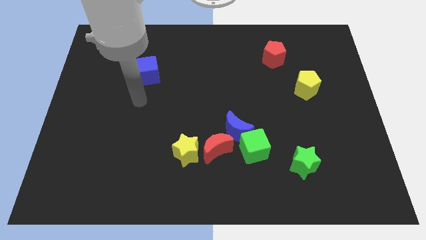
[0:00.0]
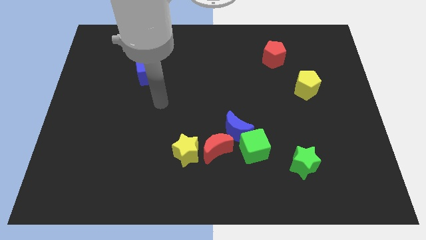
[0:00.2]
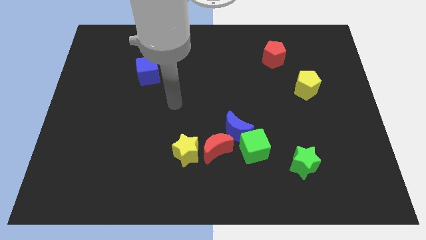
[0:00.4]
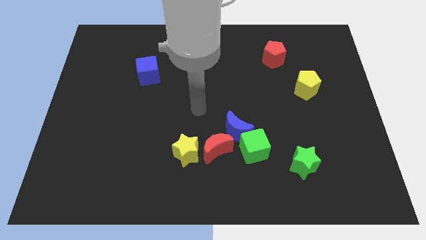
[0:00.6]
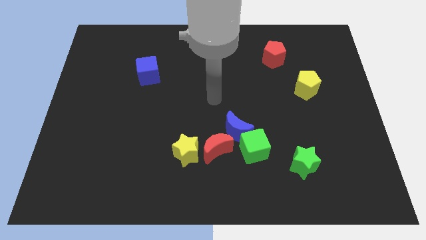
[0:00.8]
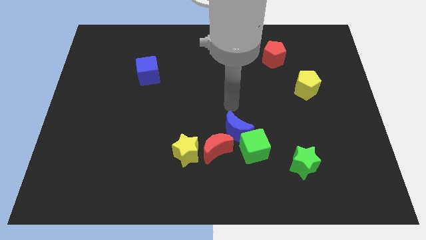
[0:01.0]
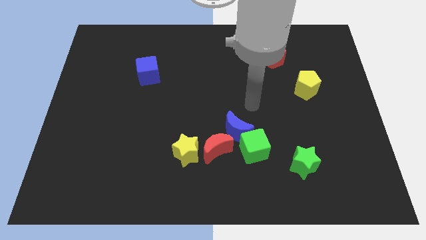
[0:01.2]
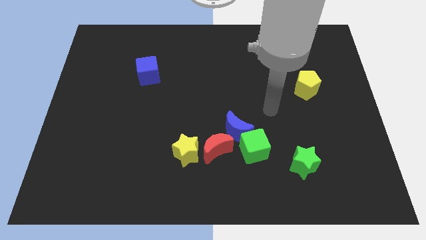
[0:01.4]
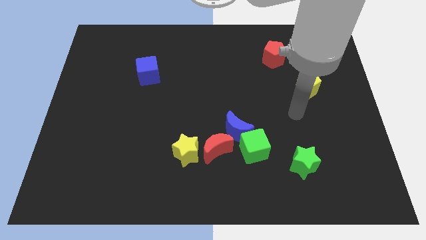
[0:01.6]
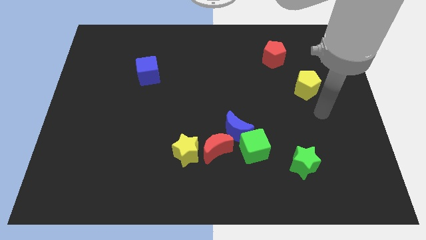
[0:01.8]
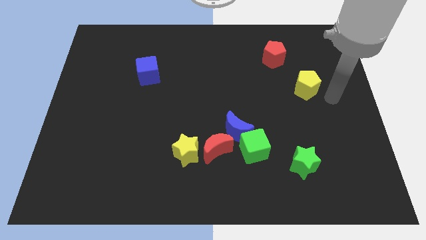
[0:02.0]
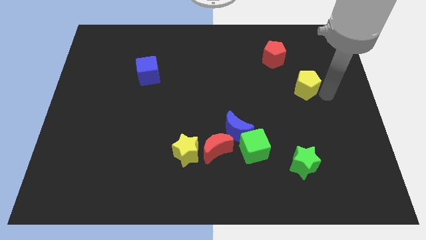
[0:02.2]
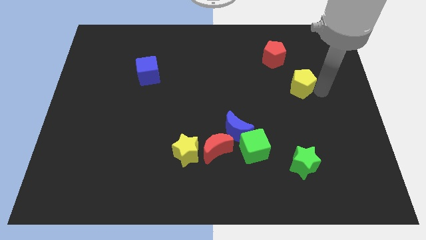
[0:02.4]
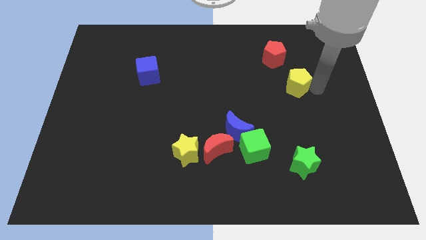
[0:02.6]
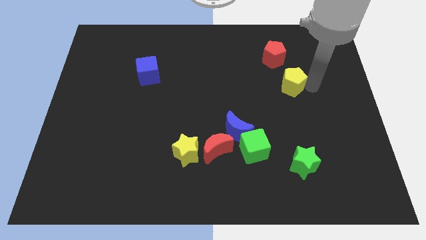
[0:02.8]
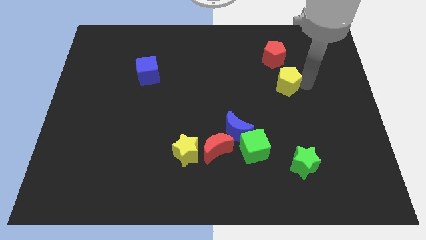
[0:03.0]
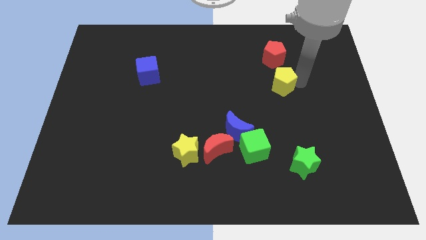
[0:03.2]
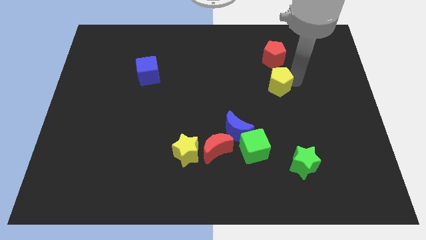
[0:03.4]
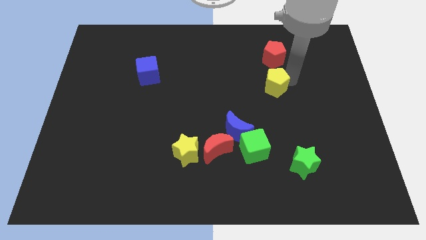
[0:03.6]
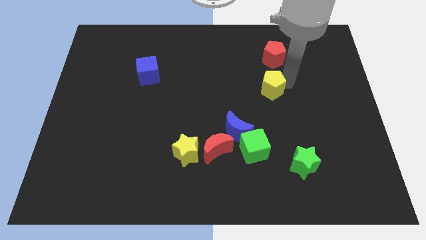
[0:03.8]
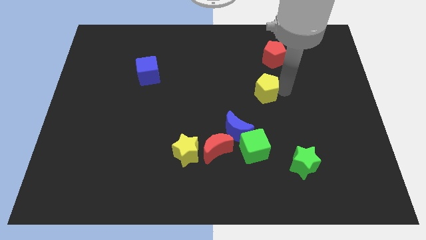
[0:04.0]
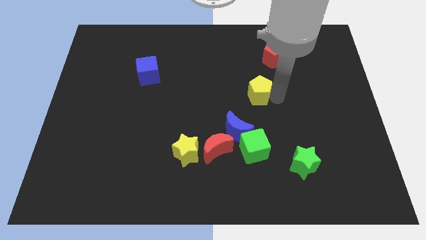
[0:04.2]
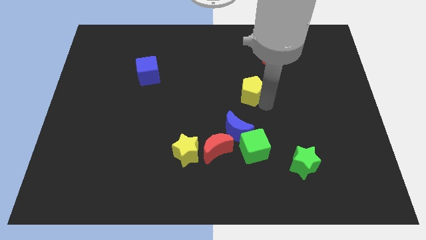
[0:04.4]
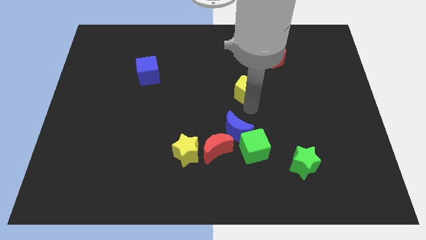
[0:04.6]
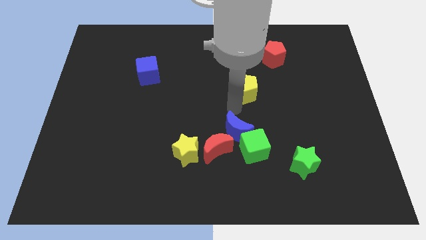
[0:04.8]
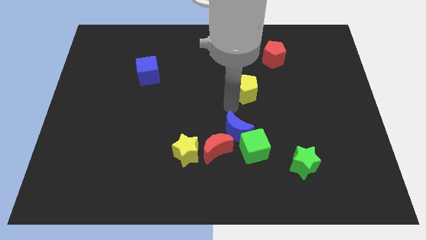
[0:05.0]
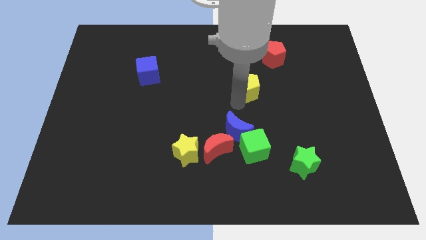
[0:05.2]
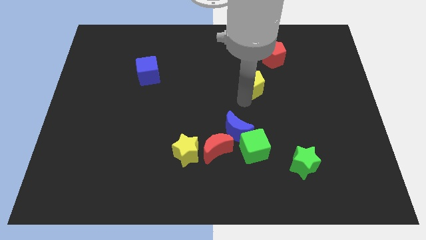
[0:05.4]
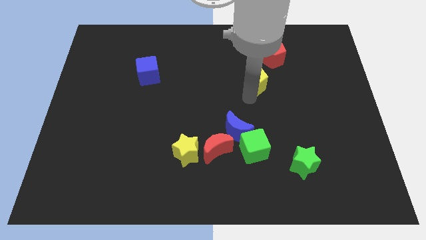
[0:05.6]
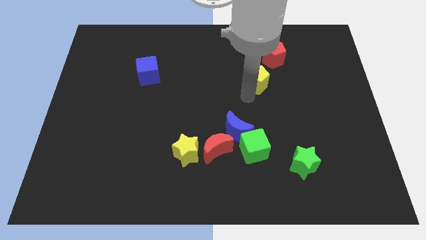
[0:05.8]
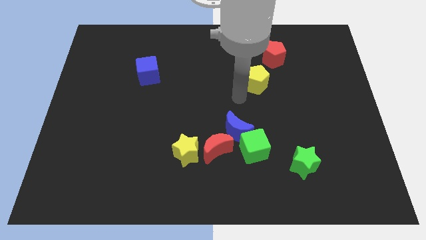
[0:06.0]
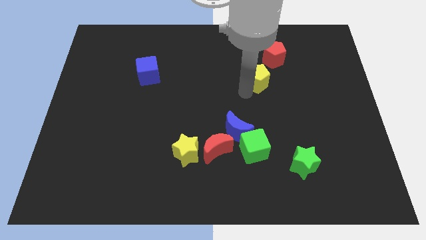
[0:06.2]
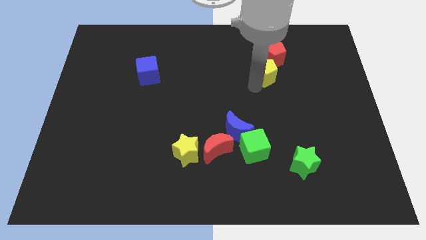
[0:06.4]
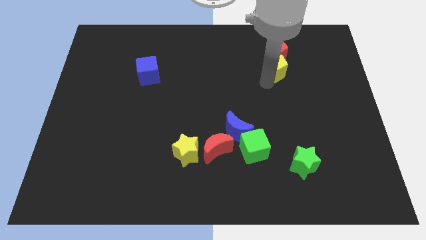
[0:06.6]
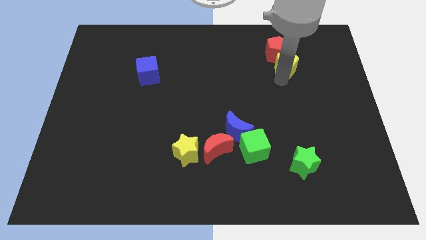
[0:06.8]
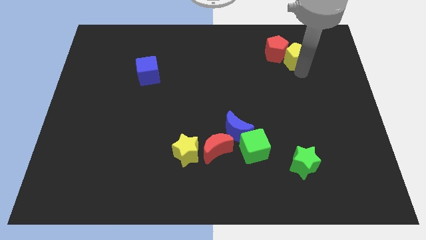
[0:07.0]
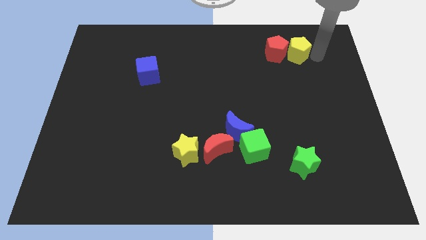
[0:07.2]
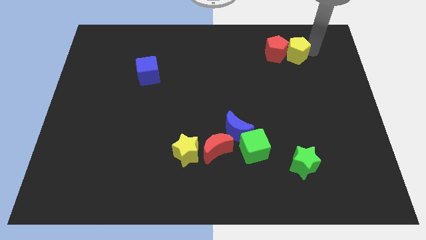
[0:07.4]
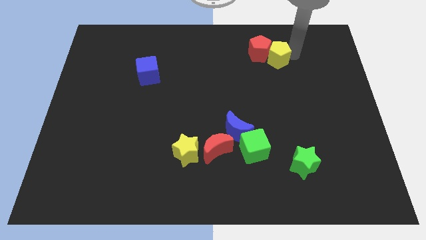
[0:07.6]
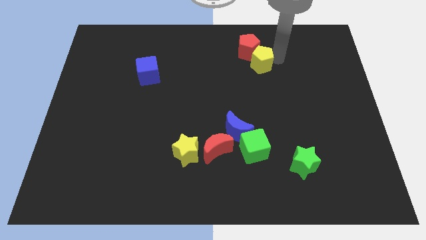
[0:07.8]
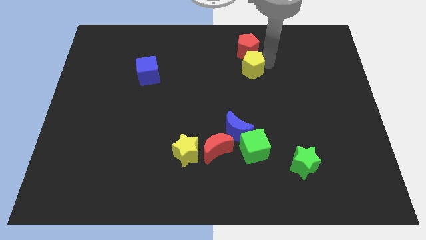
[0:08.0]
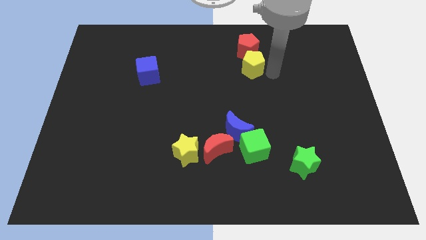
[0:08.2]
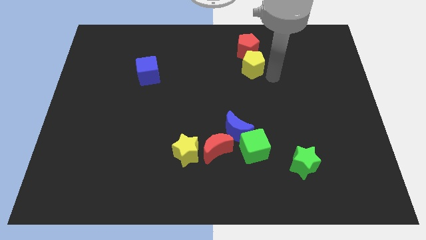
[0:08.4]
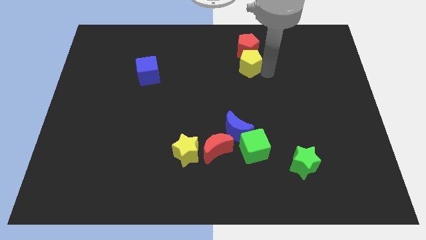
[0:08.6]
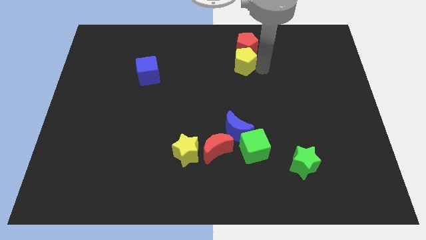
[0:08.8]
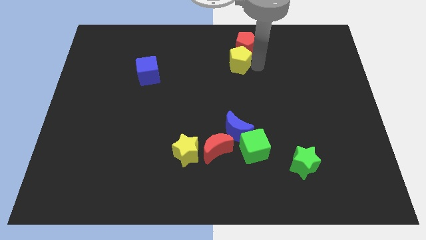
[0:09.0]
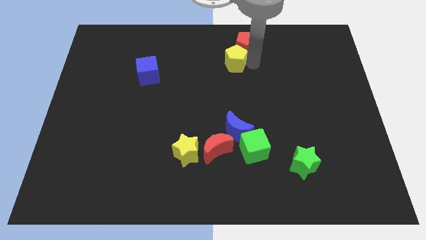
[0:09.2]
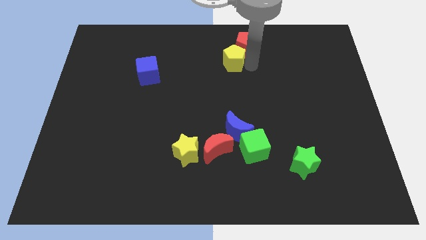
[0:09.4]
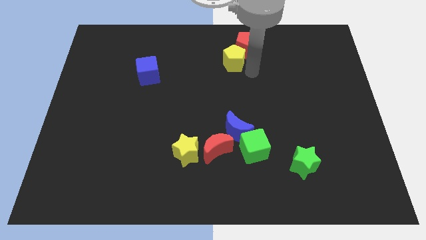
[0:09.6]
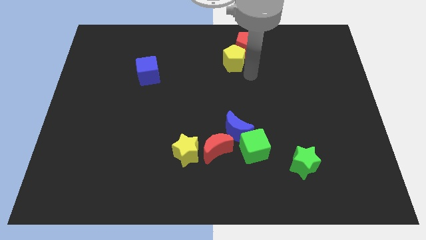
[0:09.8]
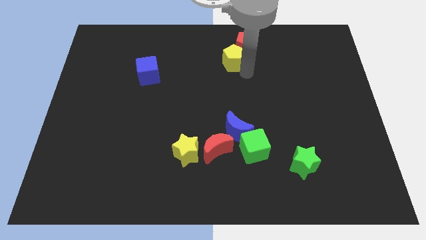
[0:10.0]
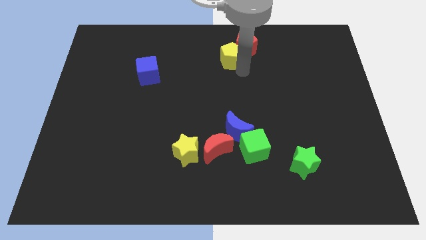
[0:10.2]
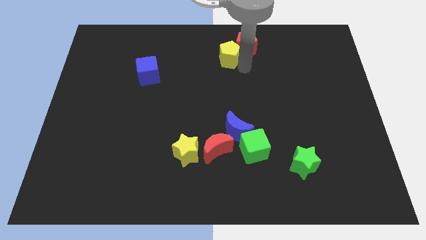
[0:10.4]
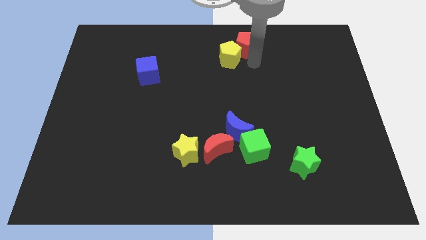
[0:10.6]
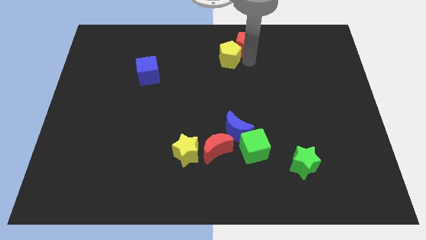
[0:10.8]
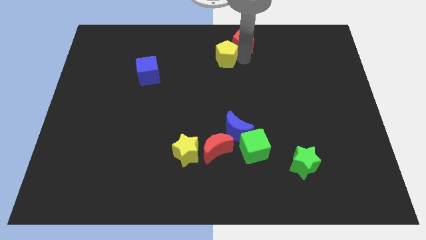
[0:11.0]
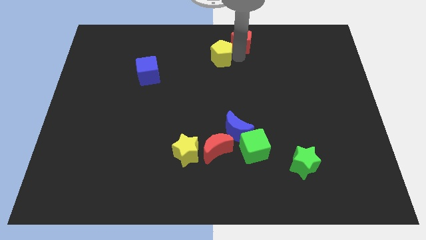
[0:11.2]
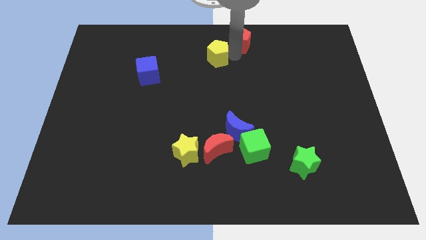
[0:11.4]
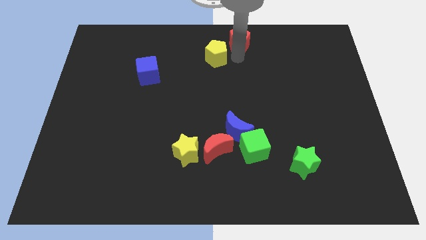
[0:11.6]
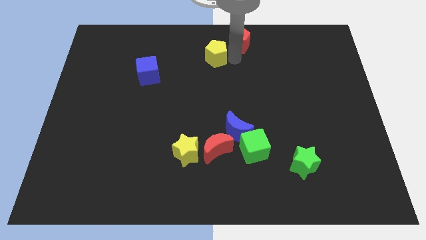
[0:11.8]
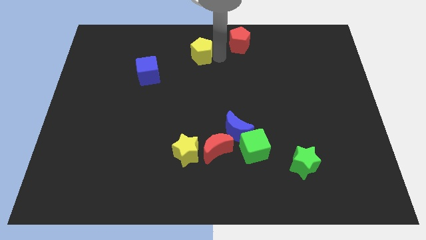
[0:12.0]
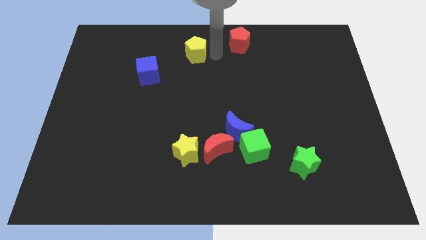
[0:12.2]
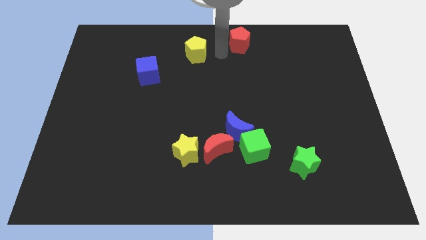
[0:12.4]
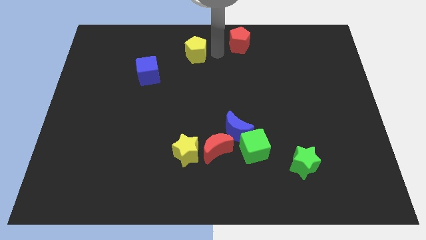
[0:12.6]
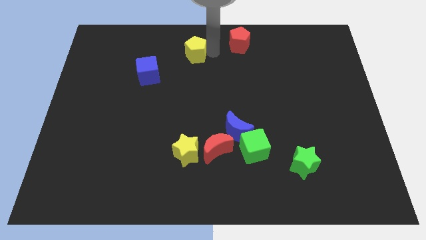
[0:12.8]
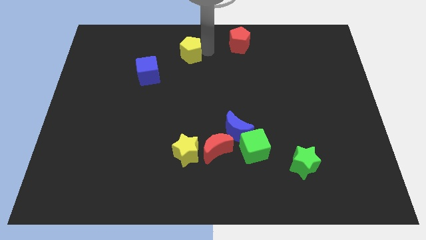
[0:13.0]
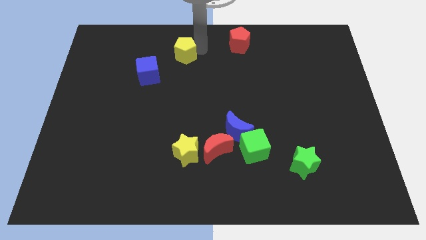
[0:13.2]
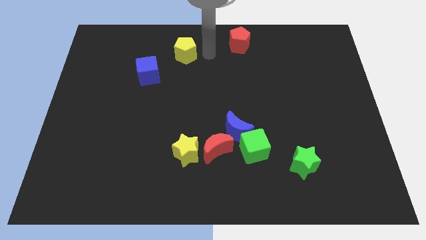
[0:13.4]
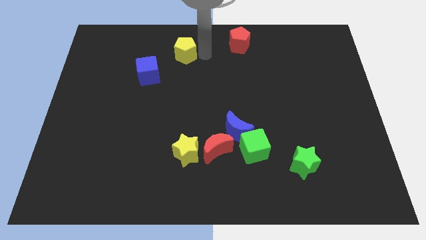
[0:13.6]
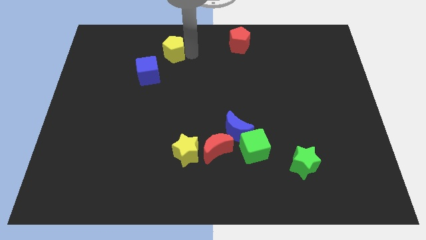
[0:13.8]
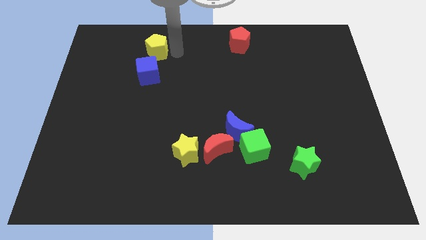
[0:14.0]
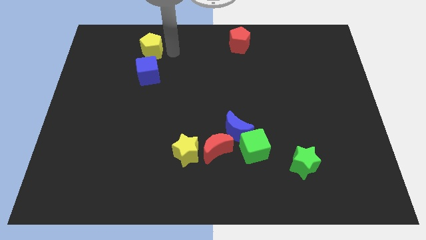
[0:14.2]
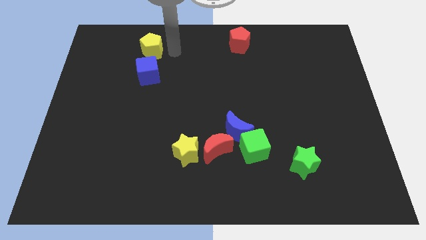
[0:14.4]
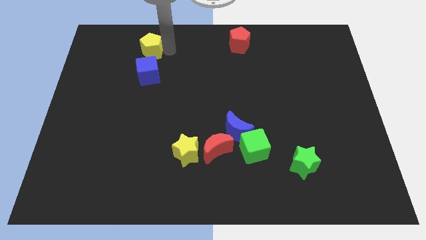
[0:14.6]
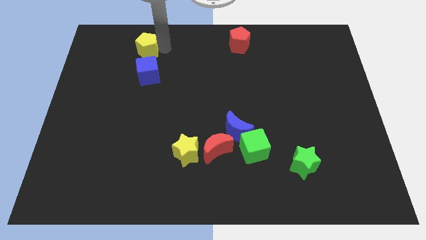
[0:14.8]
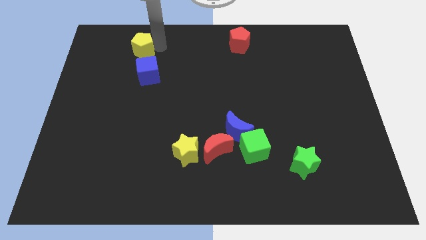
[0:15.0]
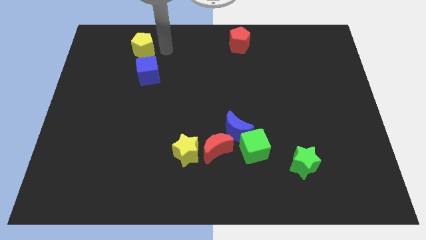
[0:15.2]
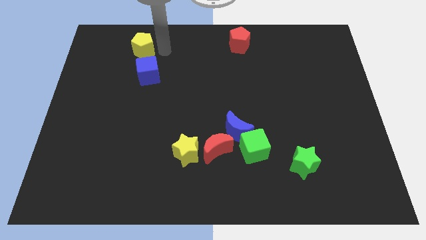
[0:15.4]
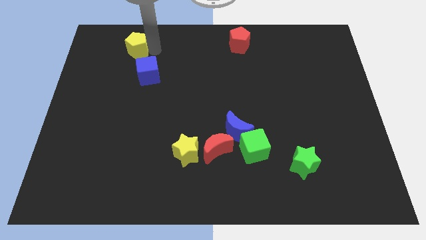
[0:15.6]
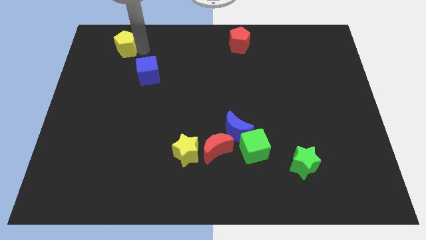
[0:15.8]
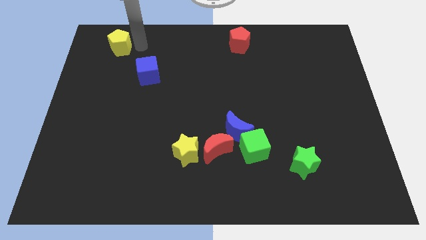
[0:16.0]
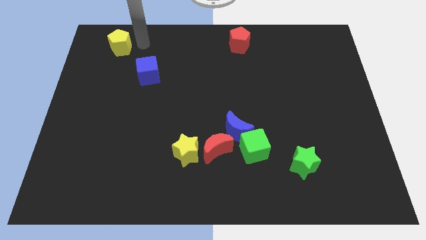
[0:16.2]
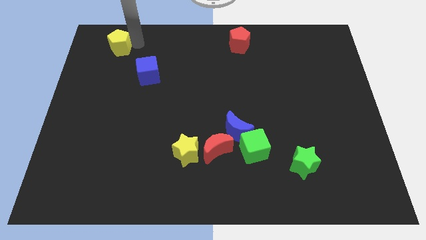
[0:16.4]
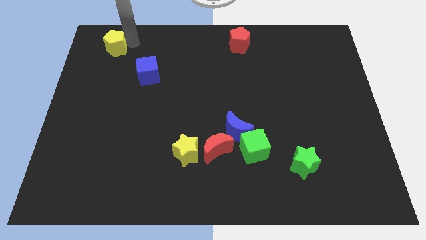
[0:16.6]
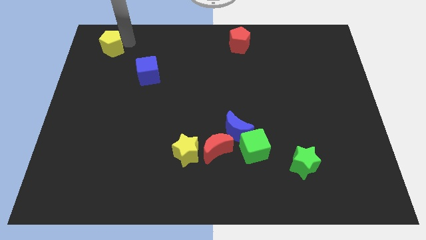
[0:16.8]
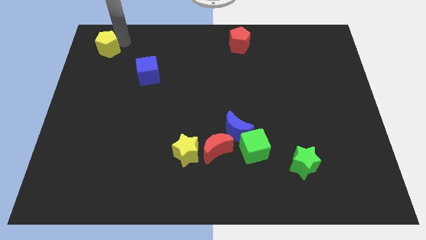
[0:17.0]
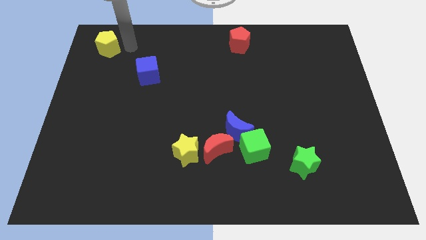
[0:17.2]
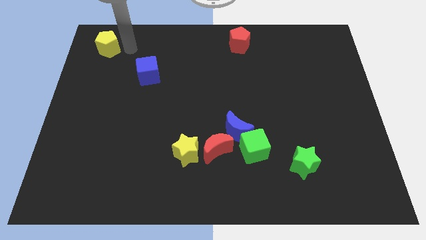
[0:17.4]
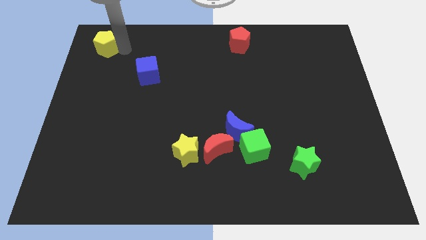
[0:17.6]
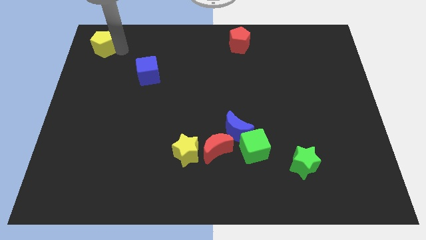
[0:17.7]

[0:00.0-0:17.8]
slide the yellow pentagon to the top left
